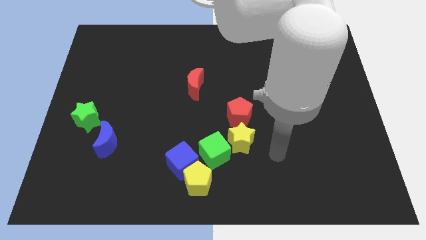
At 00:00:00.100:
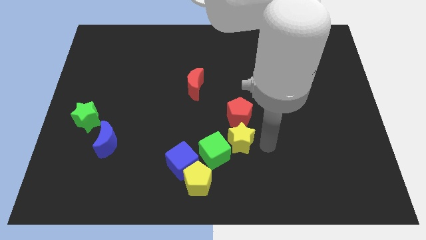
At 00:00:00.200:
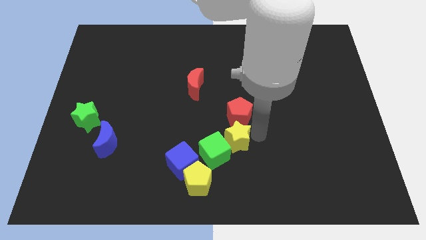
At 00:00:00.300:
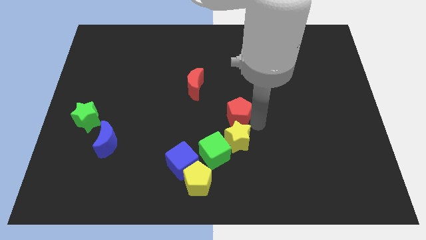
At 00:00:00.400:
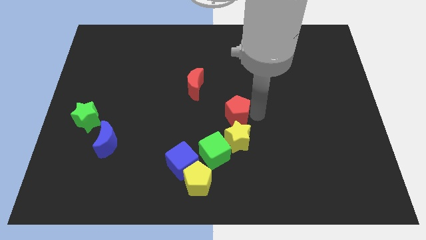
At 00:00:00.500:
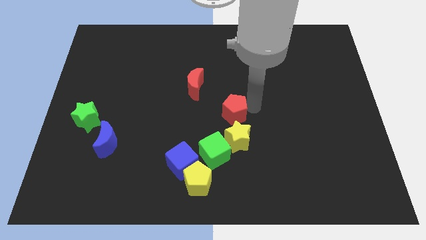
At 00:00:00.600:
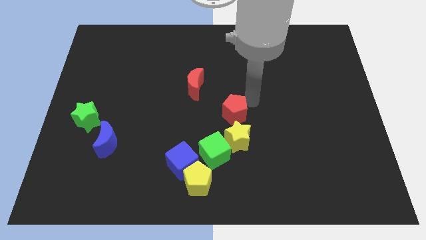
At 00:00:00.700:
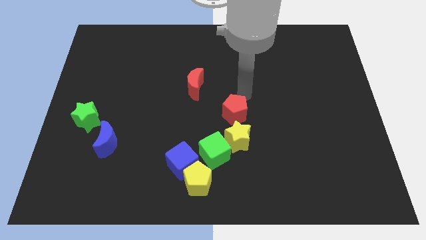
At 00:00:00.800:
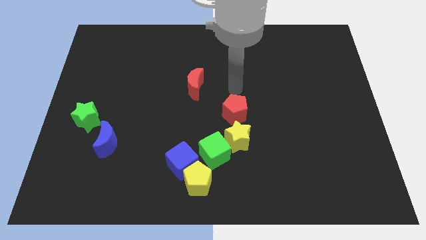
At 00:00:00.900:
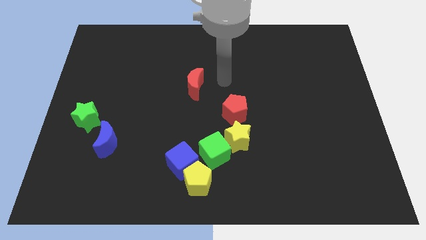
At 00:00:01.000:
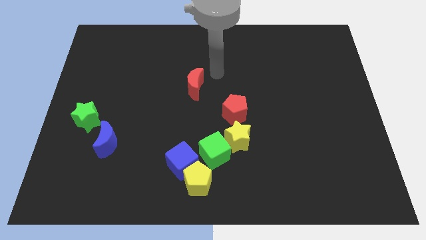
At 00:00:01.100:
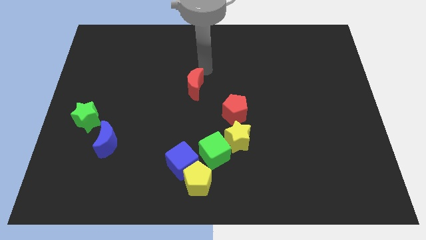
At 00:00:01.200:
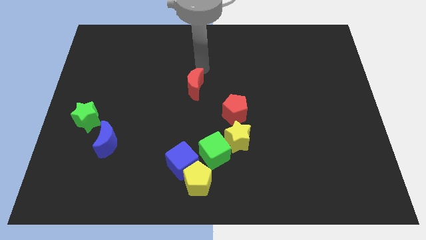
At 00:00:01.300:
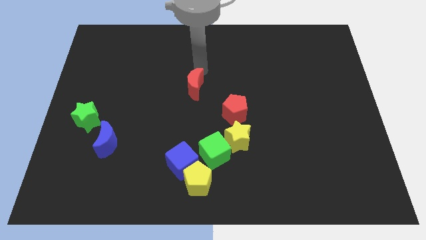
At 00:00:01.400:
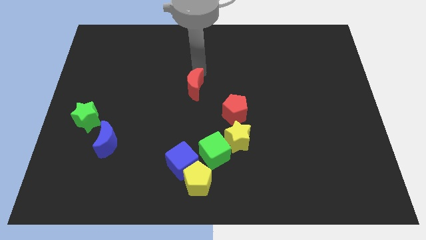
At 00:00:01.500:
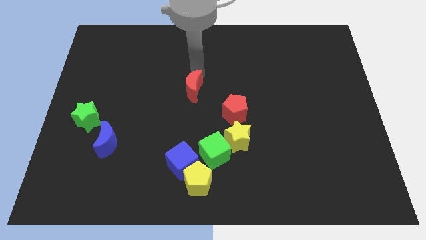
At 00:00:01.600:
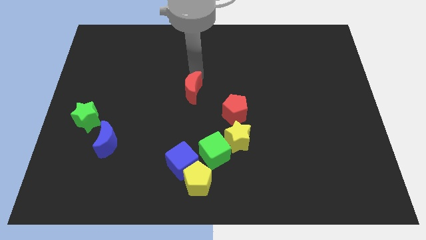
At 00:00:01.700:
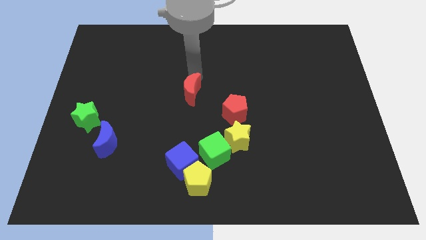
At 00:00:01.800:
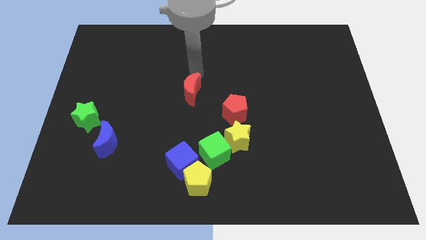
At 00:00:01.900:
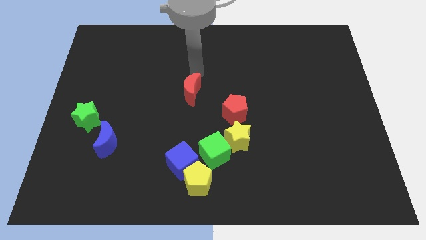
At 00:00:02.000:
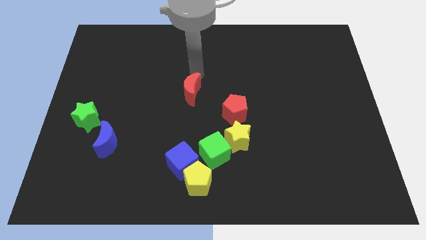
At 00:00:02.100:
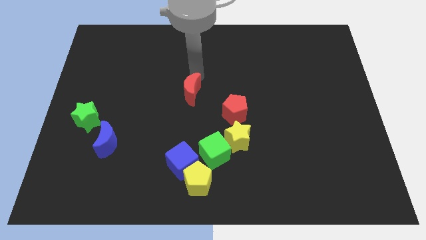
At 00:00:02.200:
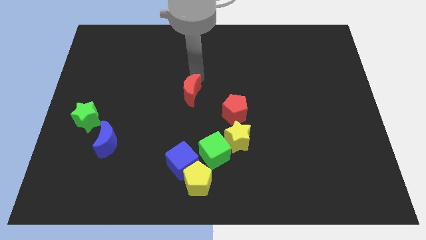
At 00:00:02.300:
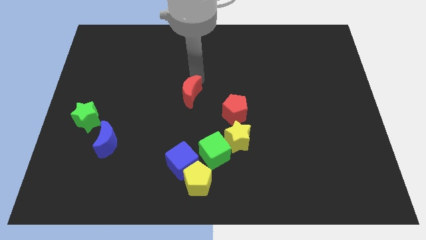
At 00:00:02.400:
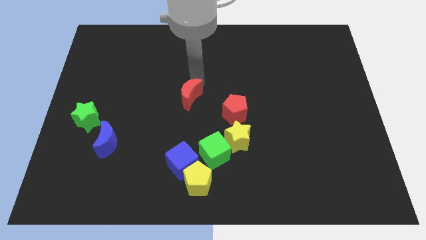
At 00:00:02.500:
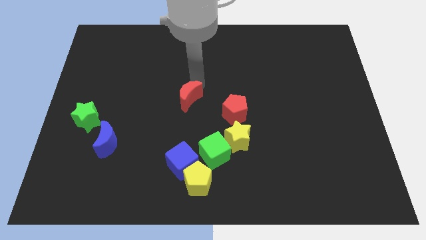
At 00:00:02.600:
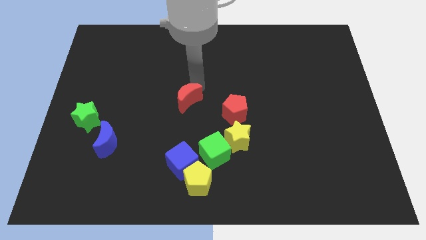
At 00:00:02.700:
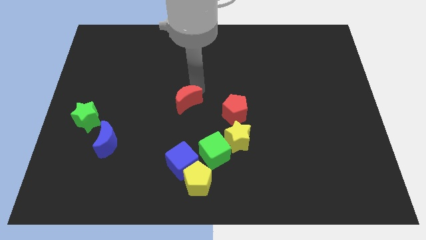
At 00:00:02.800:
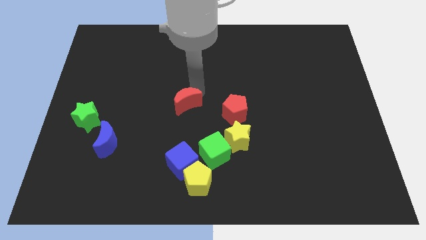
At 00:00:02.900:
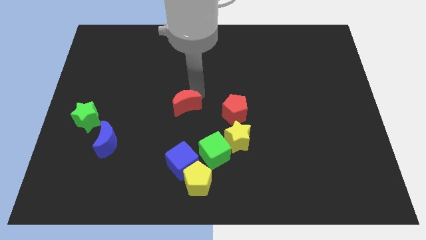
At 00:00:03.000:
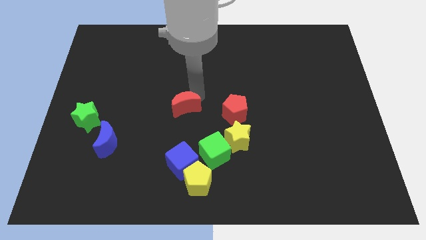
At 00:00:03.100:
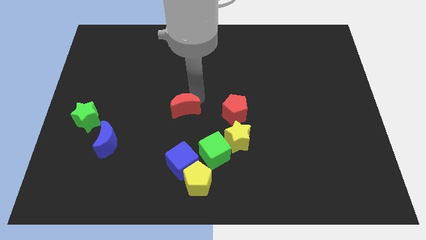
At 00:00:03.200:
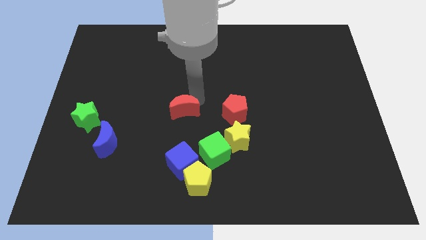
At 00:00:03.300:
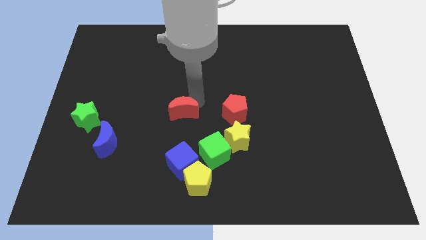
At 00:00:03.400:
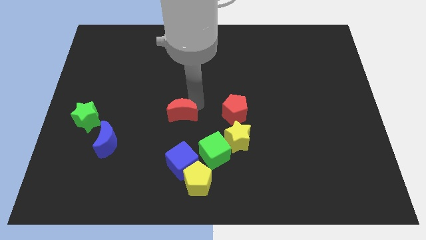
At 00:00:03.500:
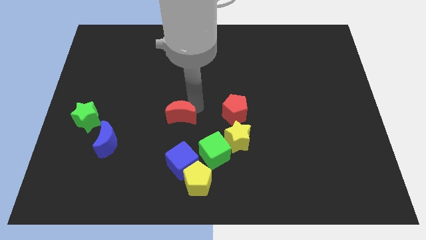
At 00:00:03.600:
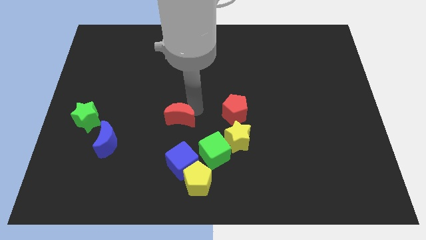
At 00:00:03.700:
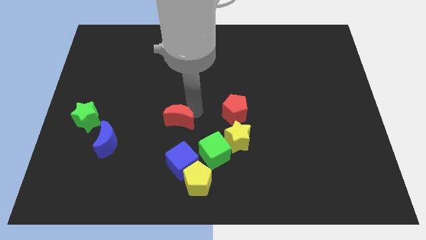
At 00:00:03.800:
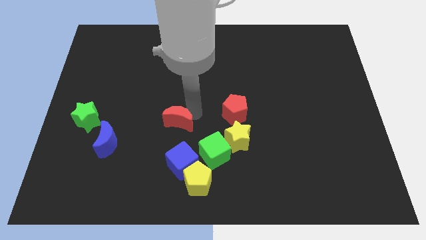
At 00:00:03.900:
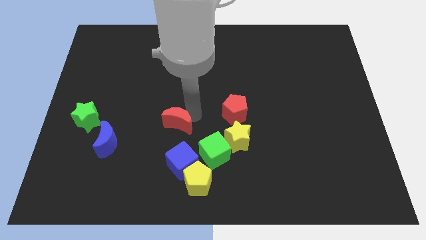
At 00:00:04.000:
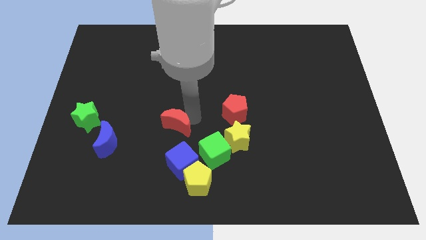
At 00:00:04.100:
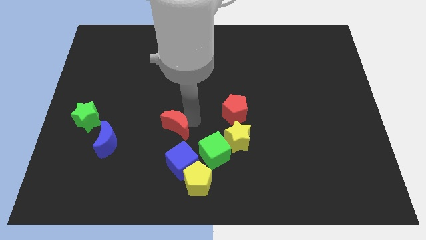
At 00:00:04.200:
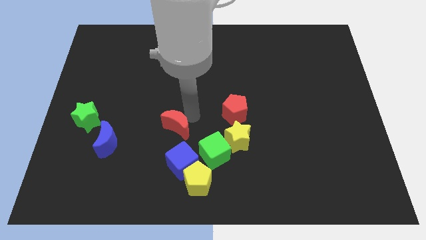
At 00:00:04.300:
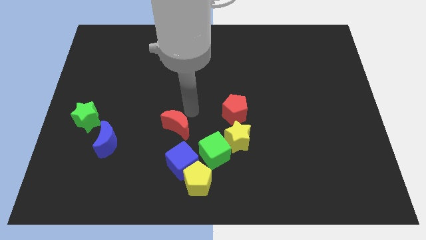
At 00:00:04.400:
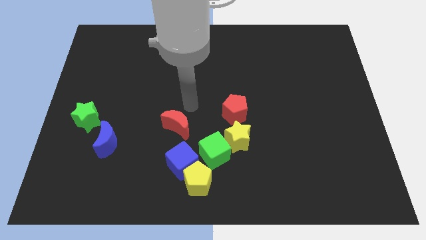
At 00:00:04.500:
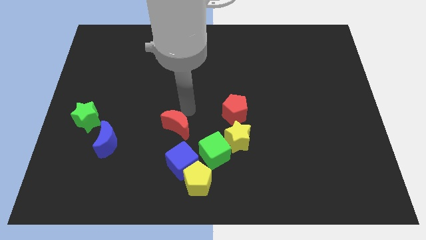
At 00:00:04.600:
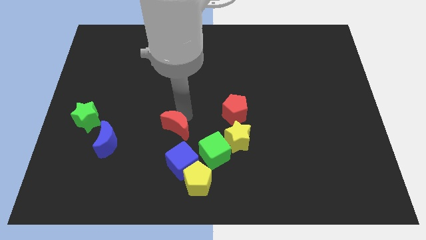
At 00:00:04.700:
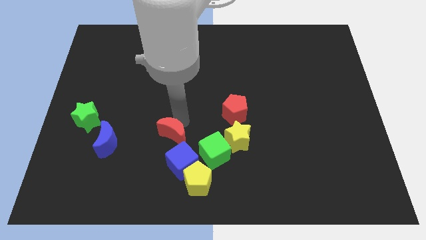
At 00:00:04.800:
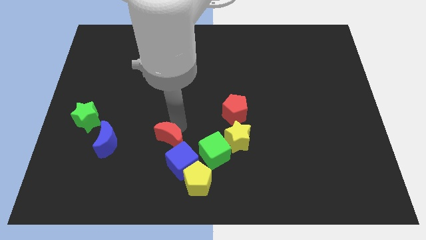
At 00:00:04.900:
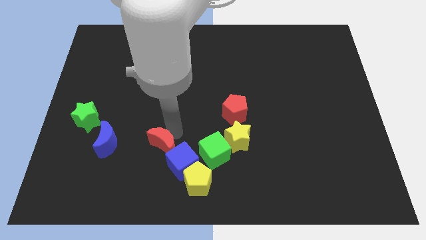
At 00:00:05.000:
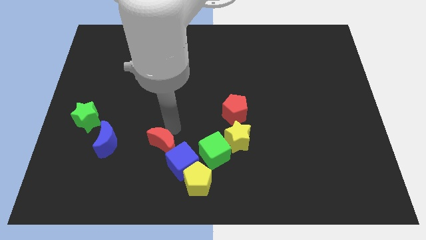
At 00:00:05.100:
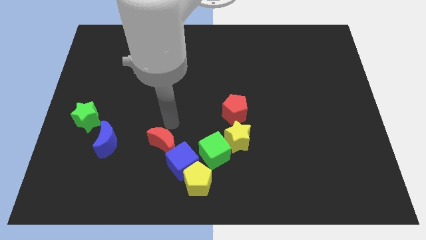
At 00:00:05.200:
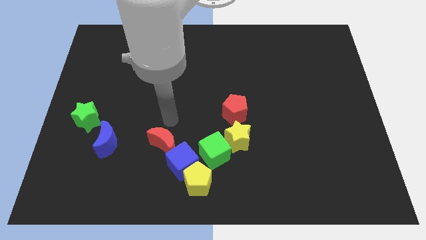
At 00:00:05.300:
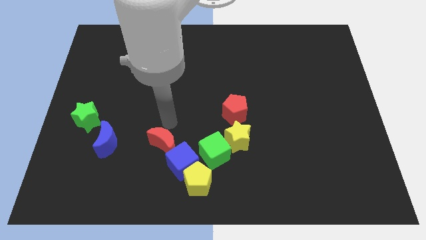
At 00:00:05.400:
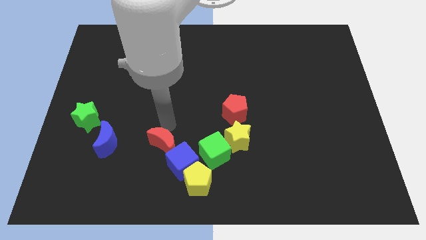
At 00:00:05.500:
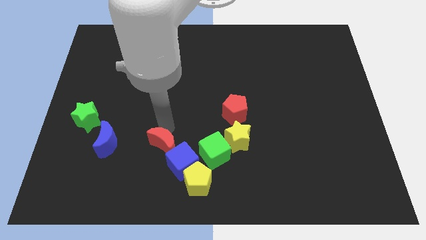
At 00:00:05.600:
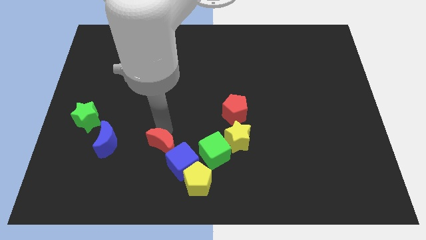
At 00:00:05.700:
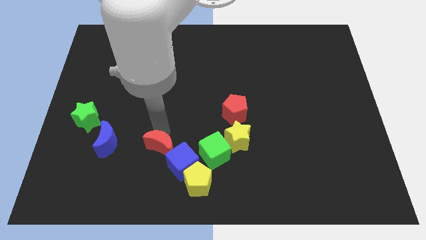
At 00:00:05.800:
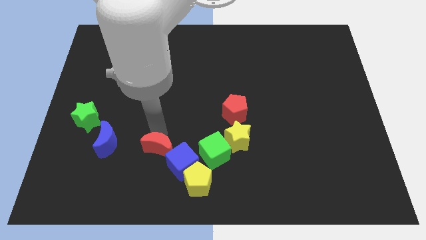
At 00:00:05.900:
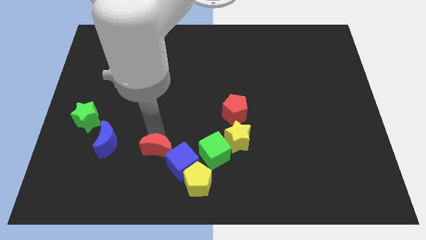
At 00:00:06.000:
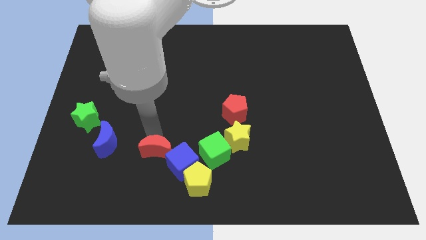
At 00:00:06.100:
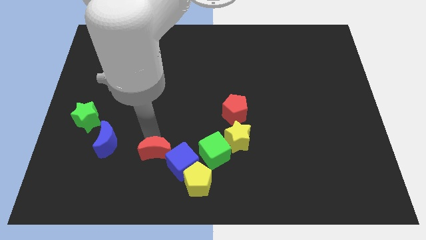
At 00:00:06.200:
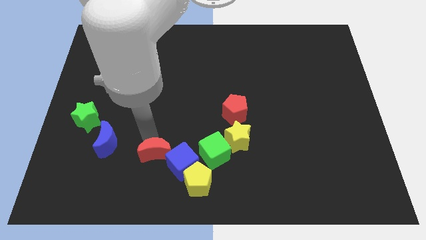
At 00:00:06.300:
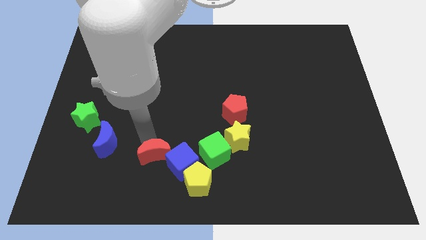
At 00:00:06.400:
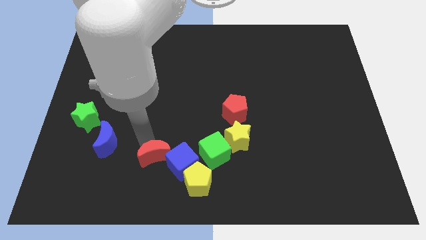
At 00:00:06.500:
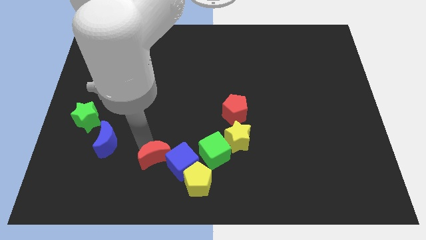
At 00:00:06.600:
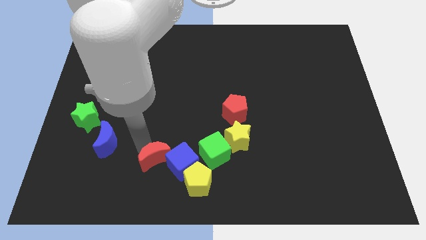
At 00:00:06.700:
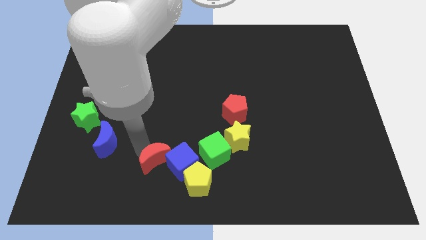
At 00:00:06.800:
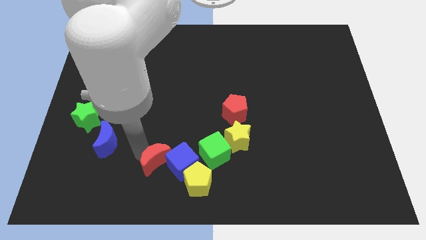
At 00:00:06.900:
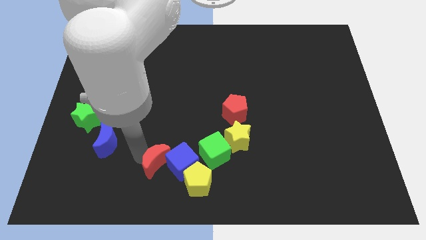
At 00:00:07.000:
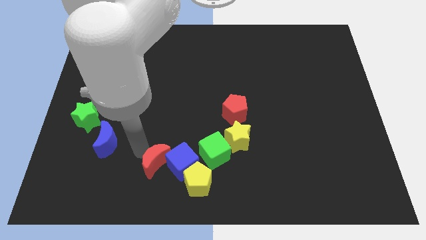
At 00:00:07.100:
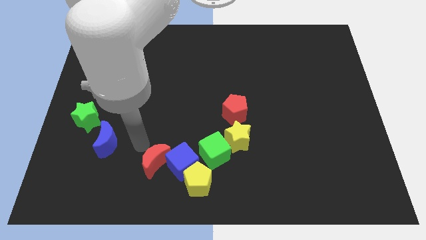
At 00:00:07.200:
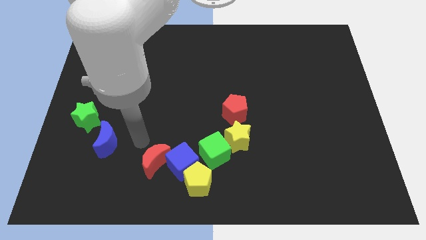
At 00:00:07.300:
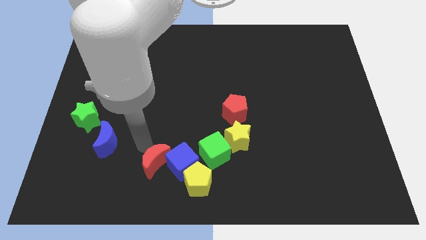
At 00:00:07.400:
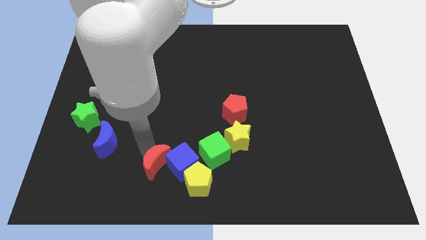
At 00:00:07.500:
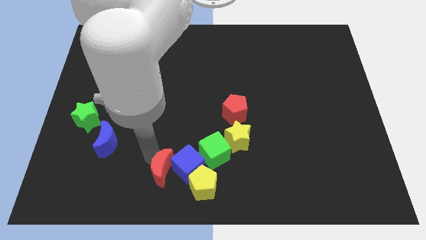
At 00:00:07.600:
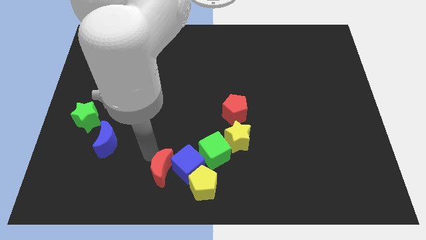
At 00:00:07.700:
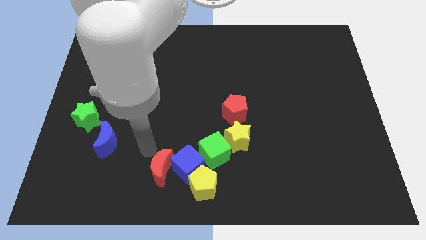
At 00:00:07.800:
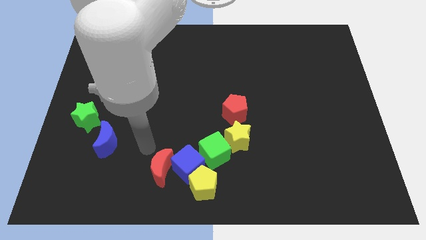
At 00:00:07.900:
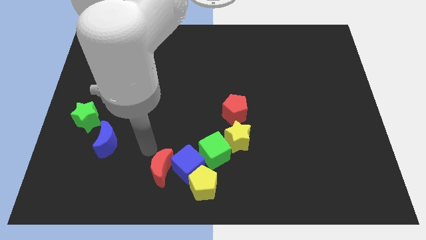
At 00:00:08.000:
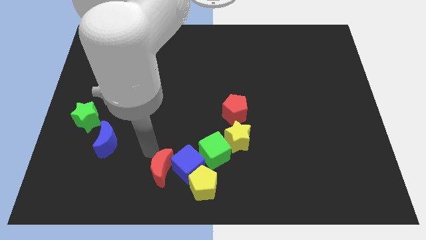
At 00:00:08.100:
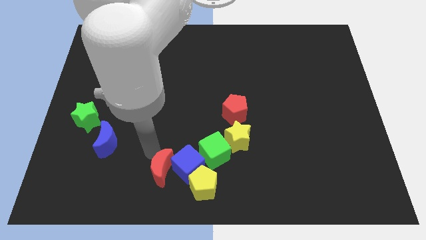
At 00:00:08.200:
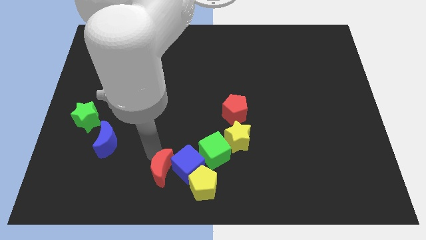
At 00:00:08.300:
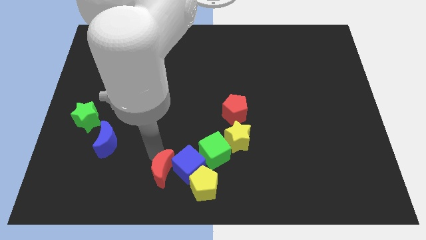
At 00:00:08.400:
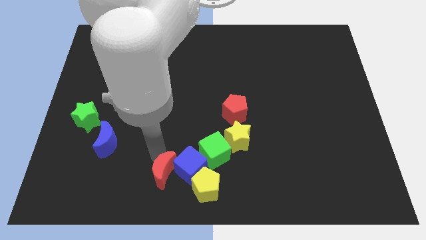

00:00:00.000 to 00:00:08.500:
move the red moon to the bottom side
